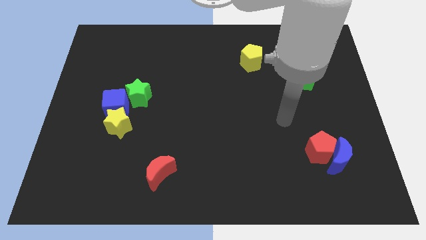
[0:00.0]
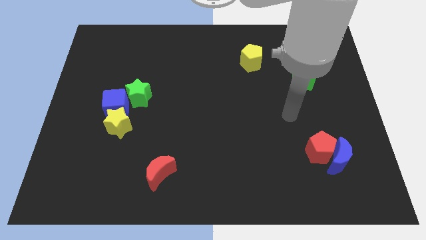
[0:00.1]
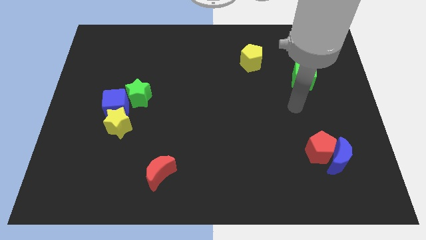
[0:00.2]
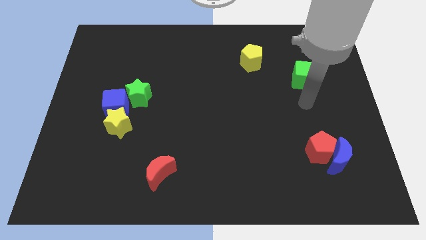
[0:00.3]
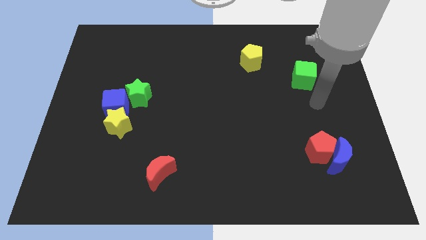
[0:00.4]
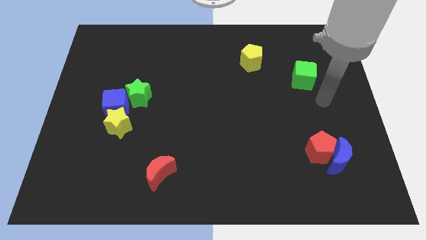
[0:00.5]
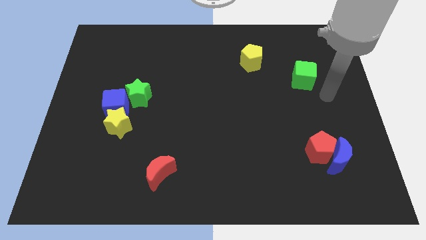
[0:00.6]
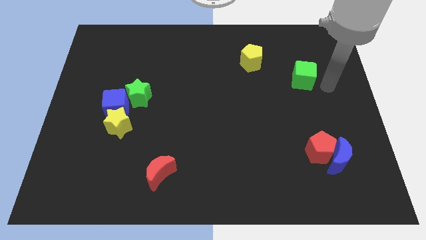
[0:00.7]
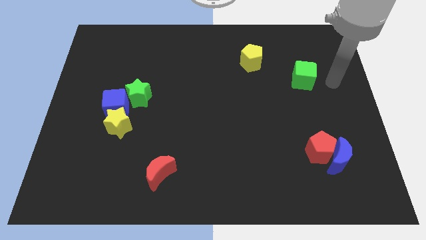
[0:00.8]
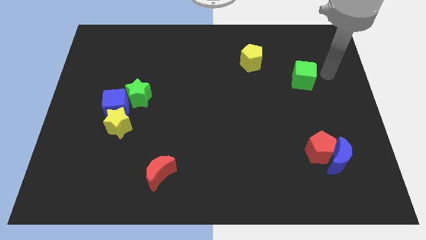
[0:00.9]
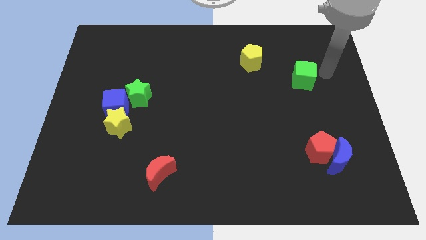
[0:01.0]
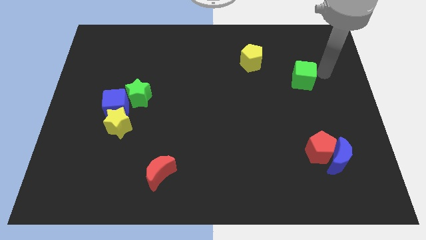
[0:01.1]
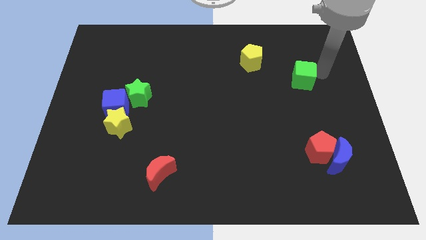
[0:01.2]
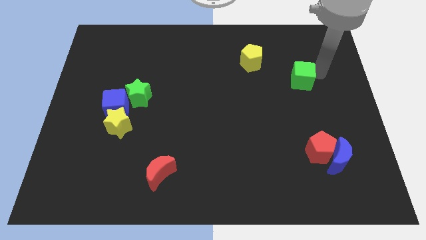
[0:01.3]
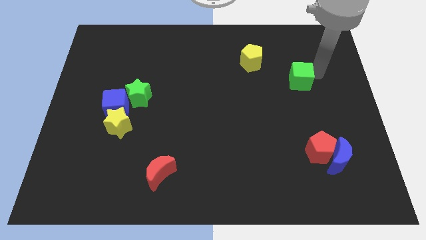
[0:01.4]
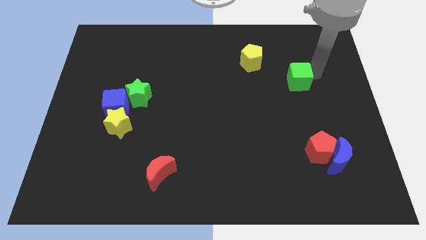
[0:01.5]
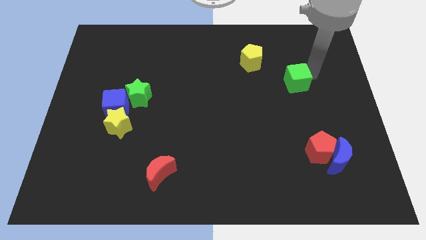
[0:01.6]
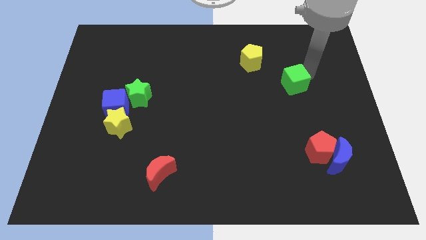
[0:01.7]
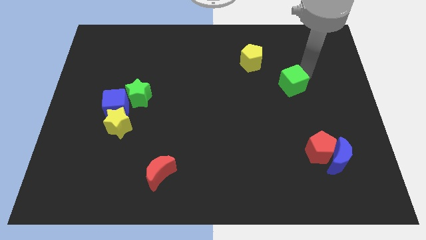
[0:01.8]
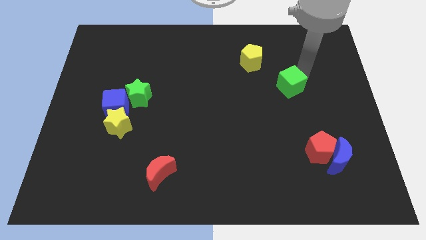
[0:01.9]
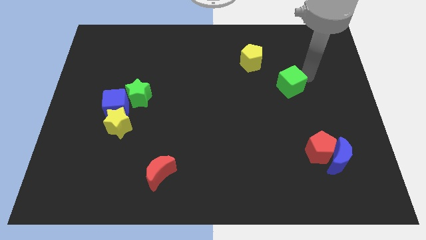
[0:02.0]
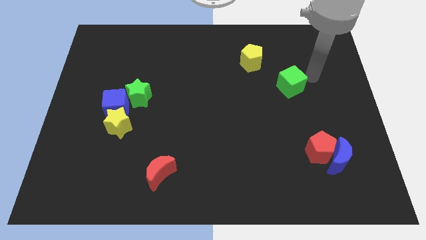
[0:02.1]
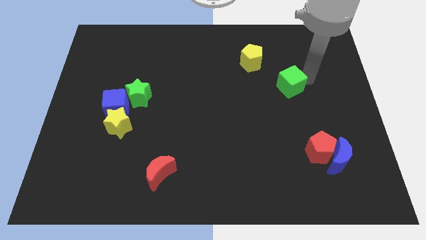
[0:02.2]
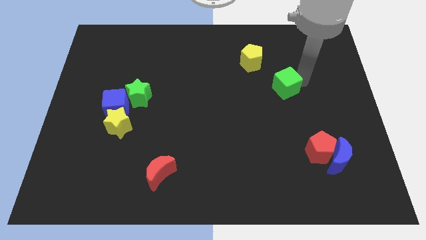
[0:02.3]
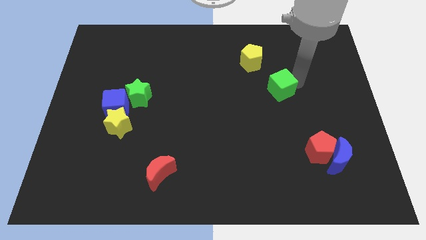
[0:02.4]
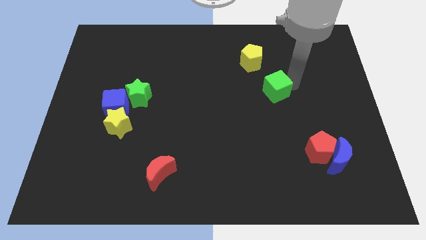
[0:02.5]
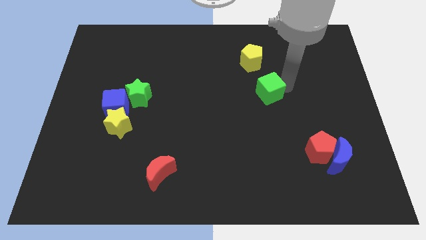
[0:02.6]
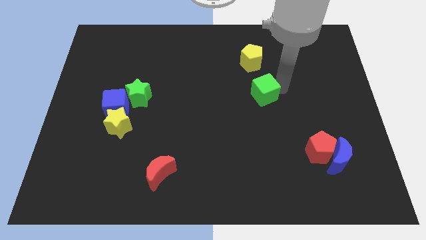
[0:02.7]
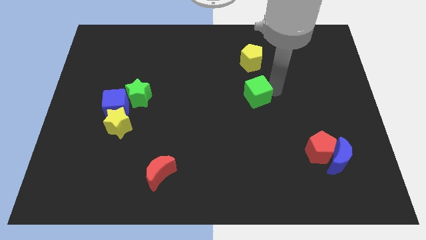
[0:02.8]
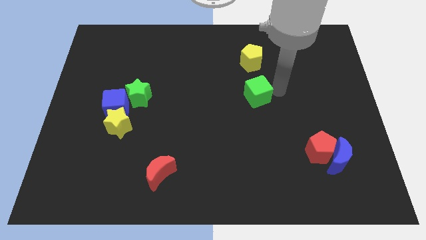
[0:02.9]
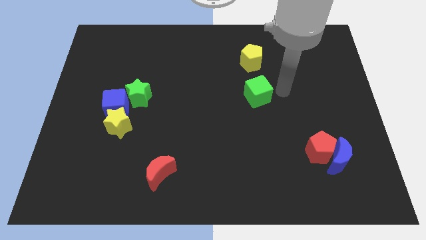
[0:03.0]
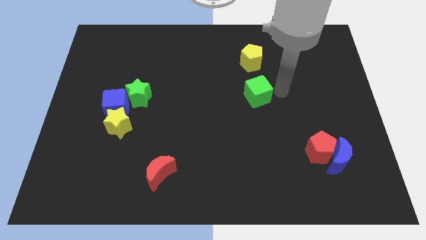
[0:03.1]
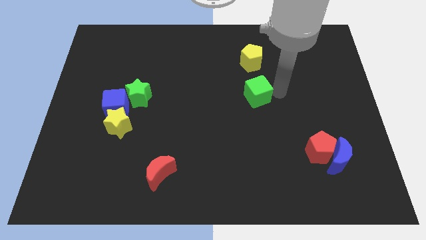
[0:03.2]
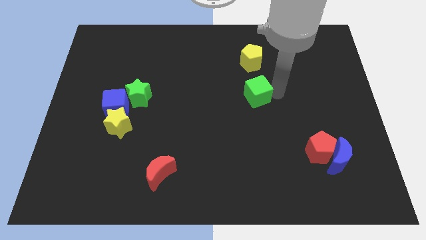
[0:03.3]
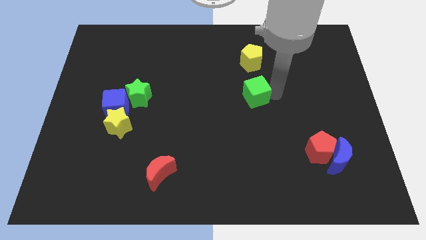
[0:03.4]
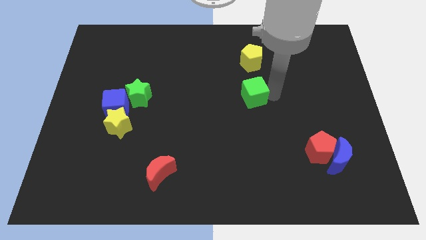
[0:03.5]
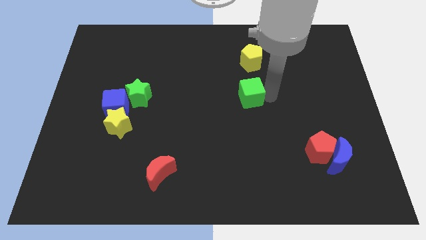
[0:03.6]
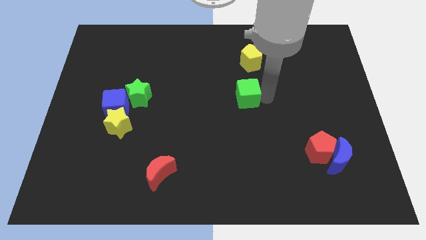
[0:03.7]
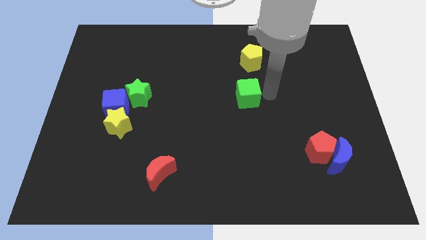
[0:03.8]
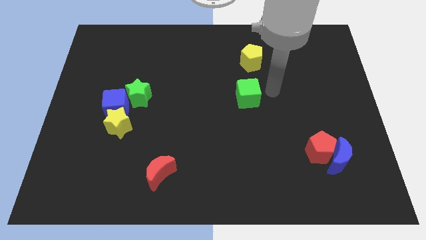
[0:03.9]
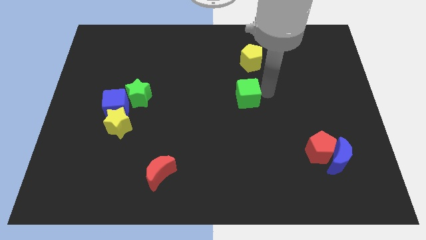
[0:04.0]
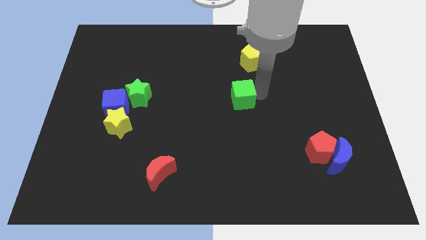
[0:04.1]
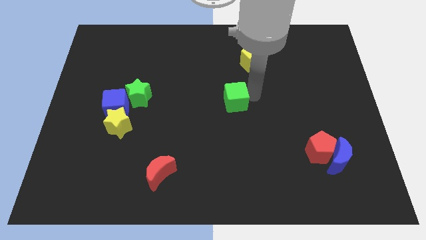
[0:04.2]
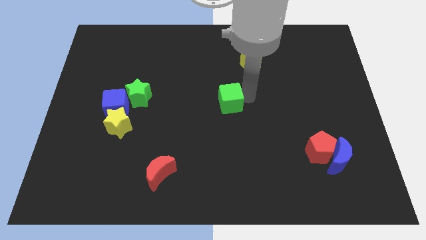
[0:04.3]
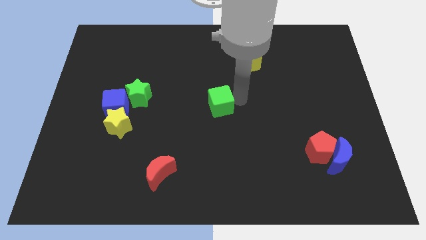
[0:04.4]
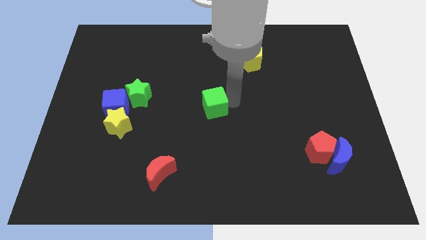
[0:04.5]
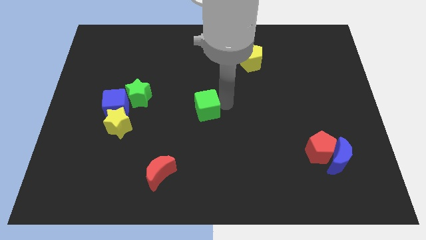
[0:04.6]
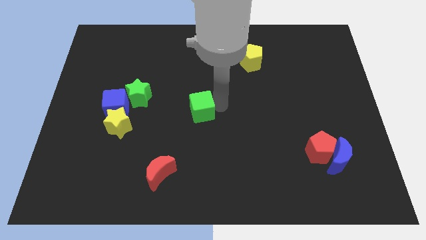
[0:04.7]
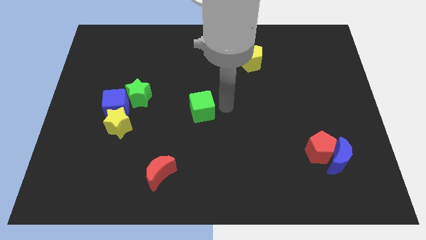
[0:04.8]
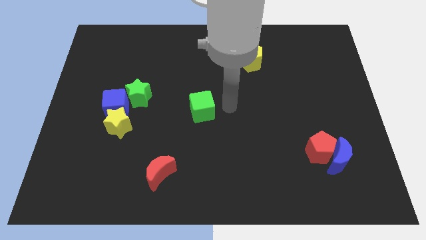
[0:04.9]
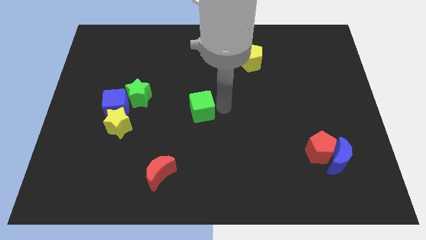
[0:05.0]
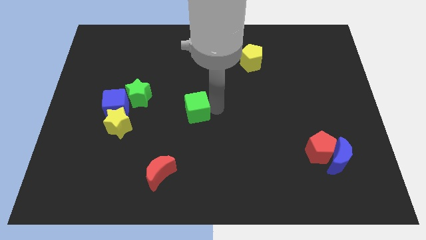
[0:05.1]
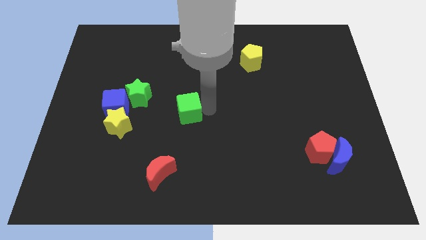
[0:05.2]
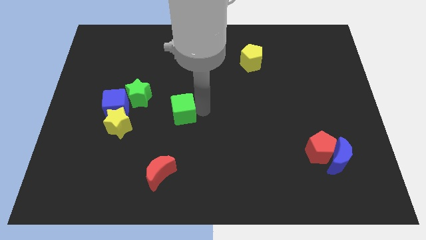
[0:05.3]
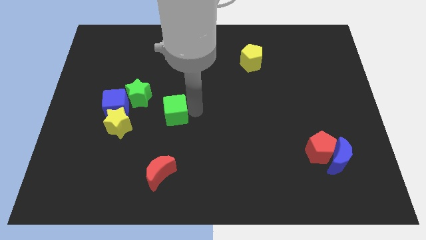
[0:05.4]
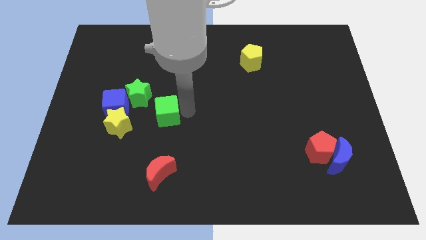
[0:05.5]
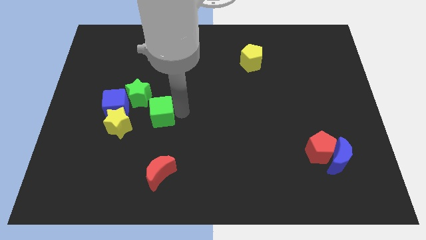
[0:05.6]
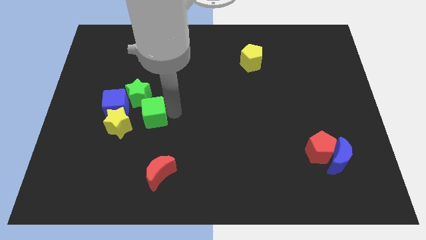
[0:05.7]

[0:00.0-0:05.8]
push the green cube to the bottom of the green star
